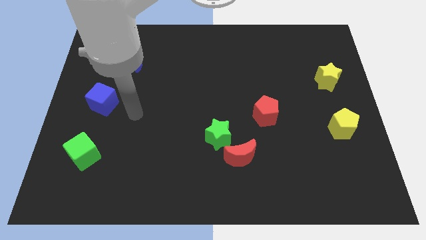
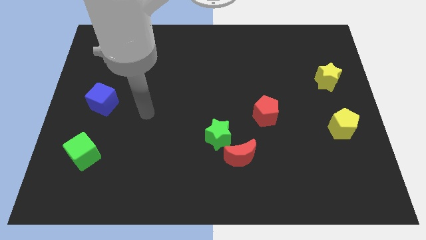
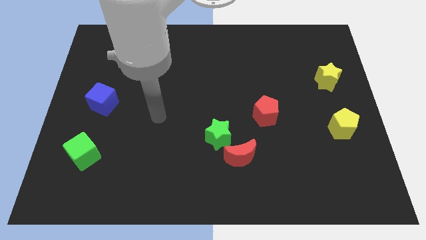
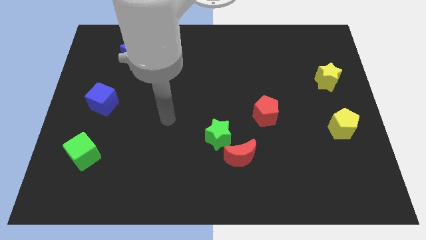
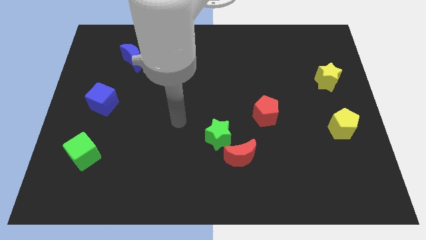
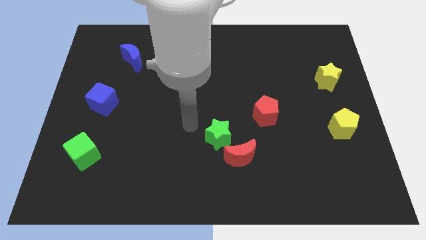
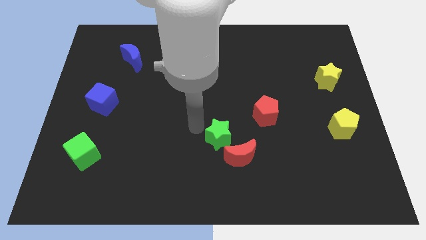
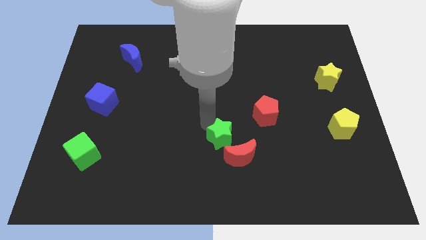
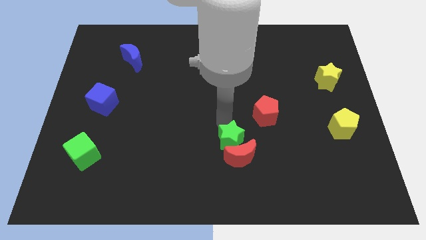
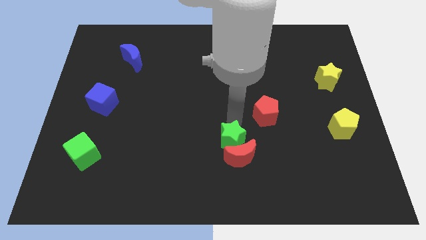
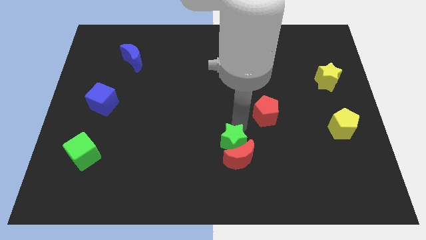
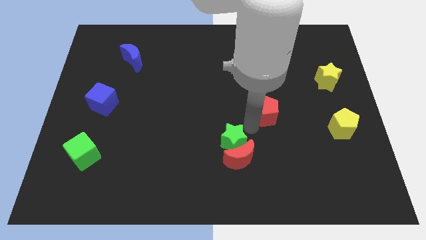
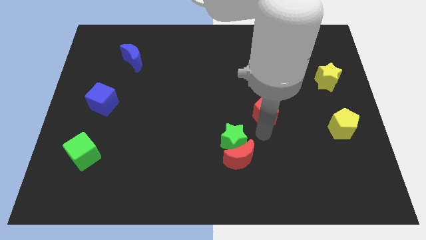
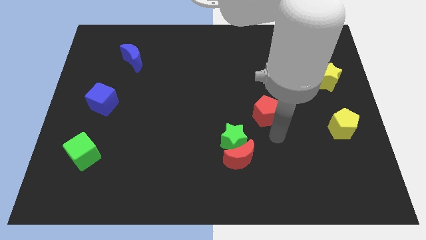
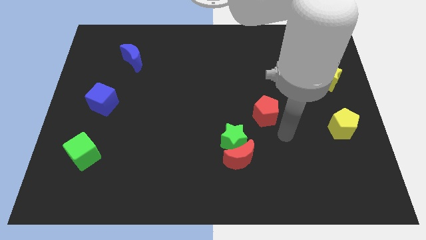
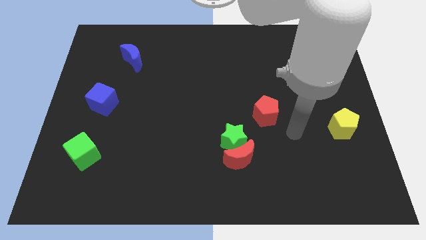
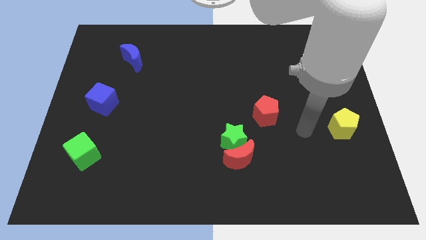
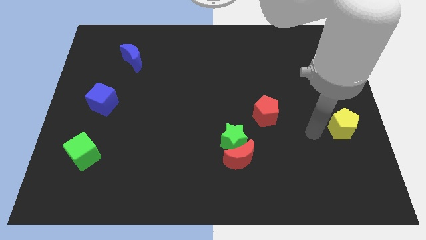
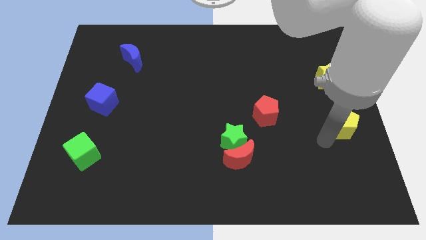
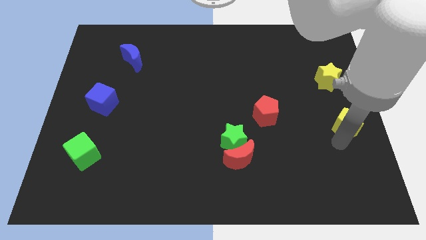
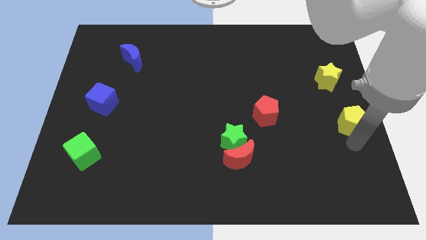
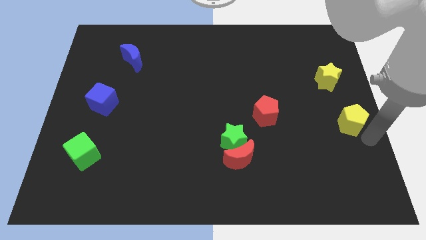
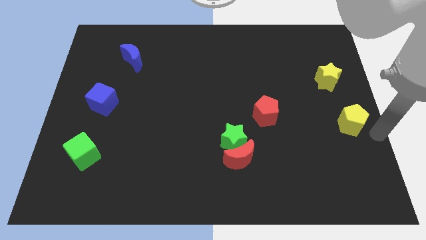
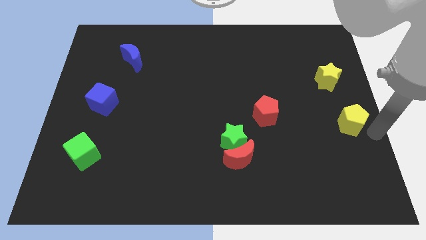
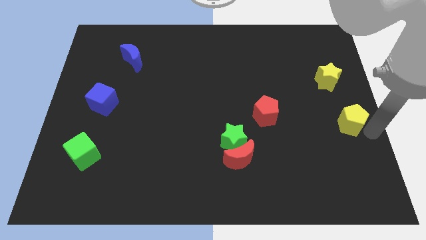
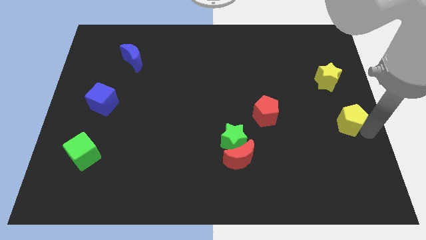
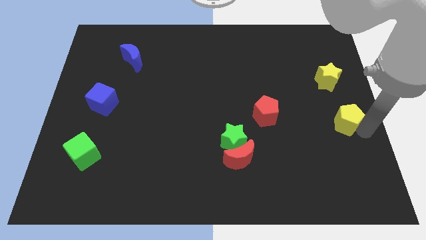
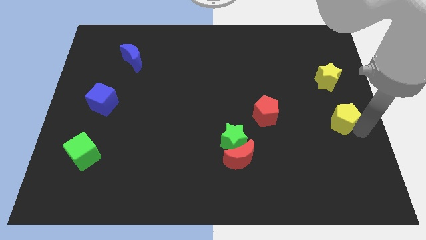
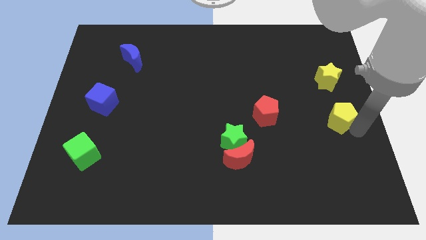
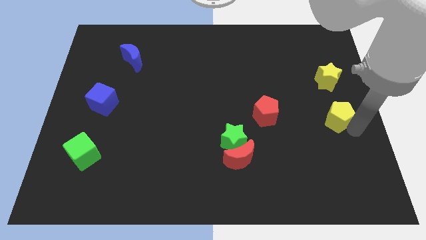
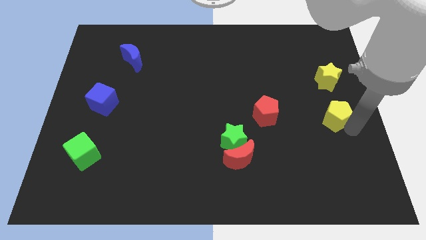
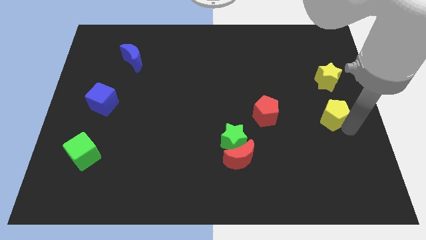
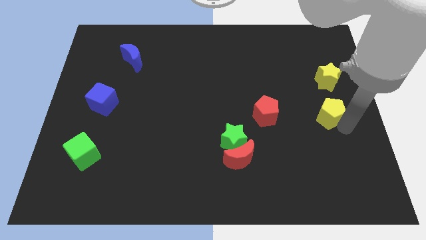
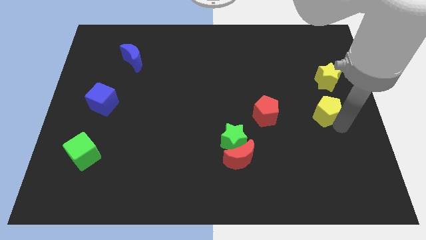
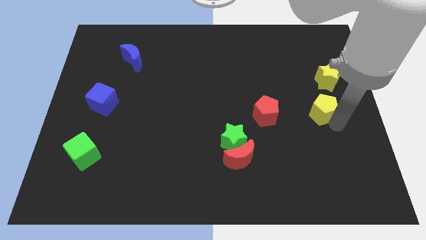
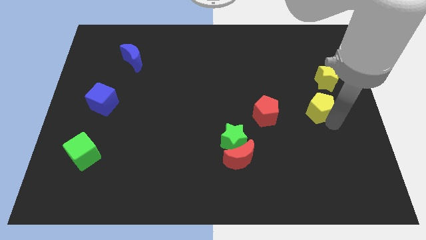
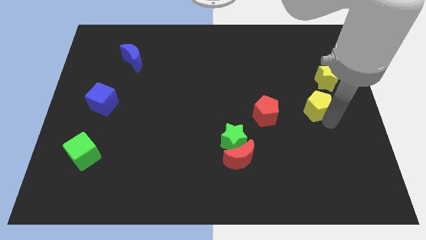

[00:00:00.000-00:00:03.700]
slightly move the yellow pentagon upwards and left diagonally

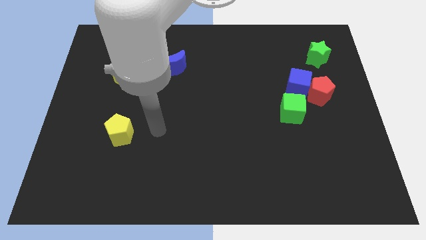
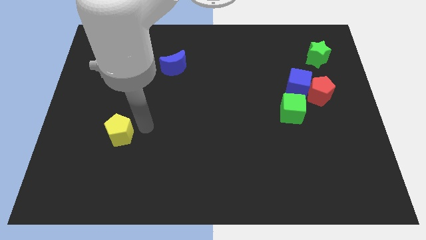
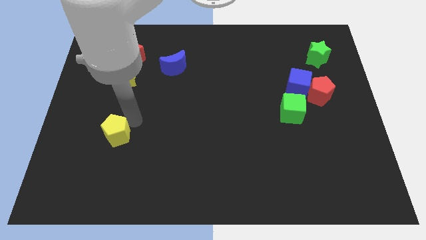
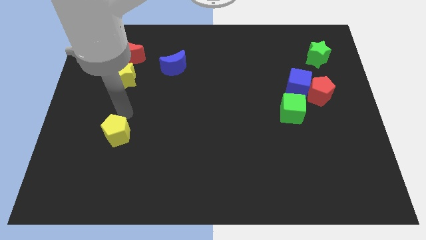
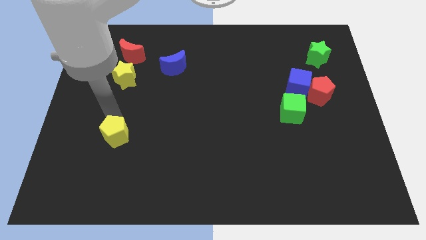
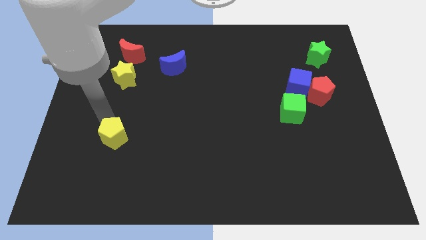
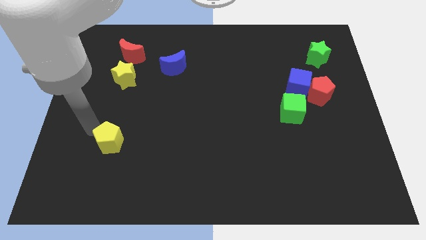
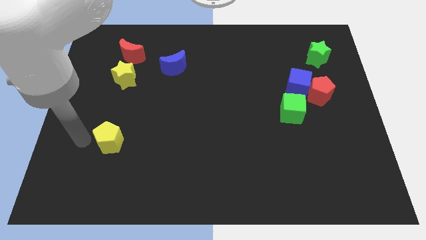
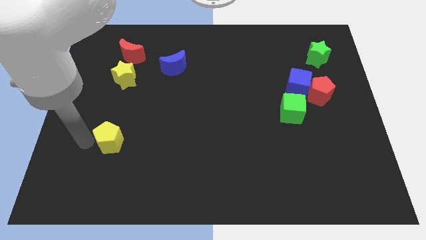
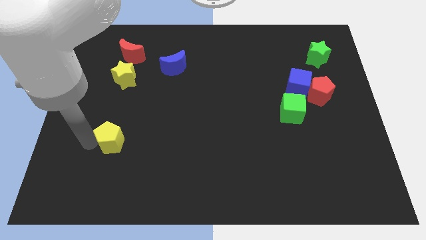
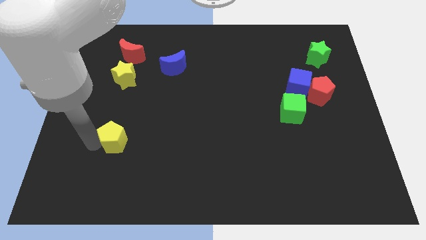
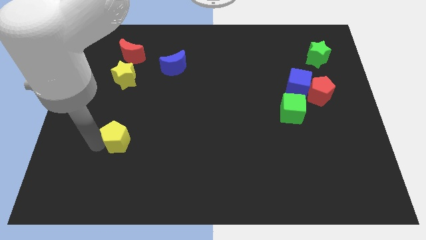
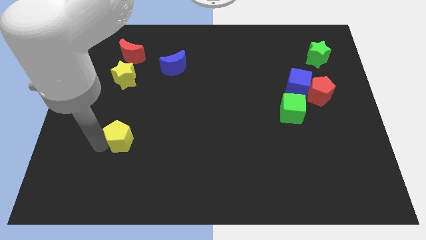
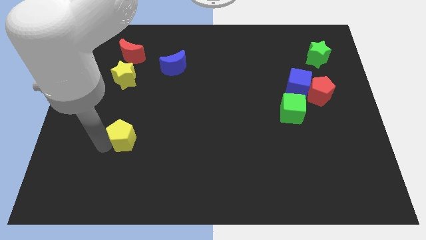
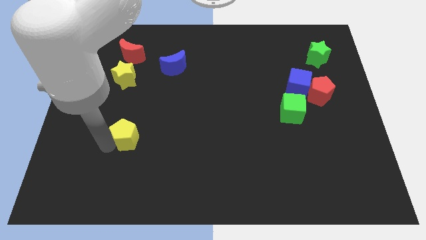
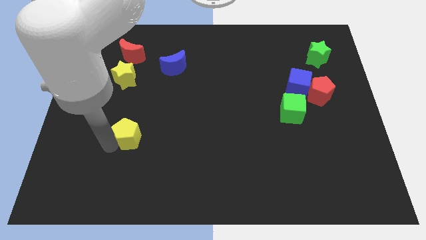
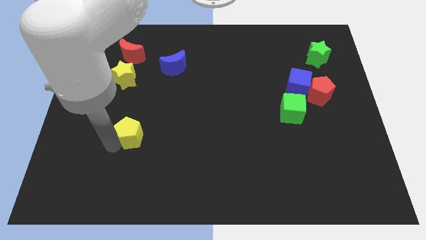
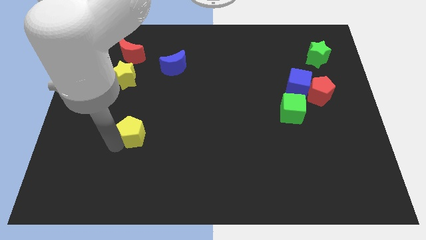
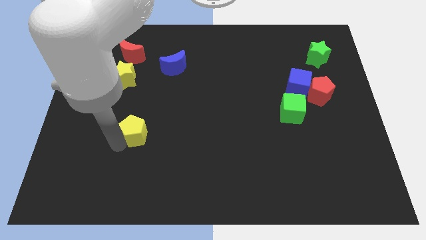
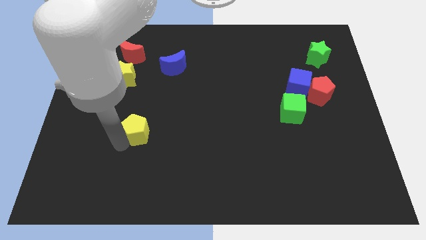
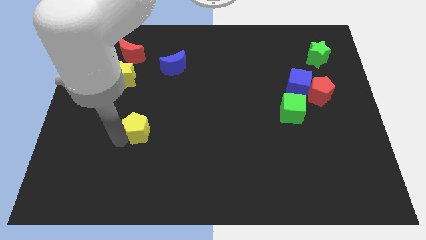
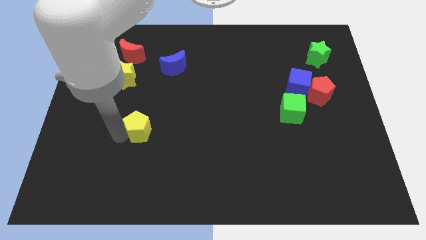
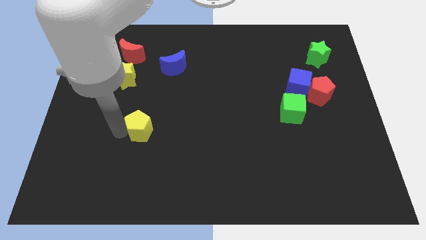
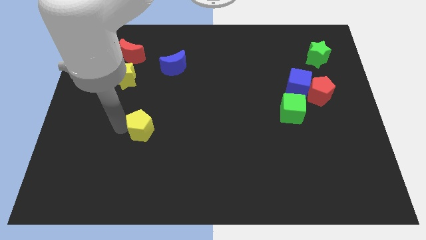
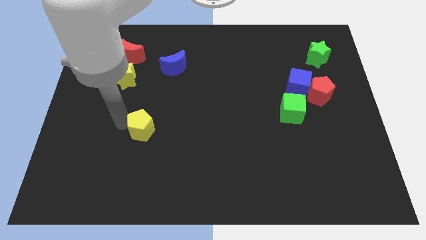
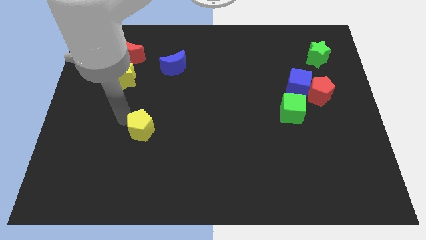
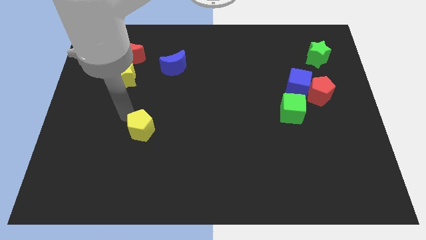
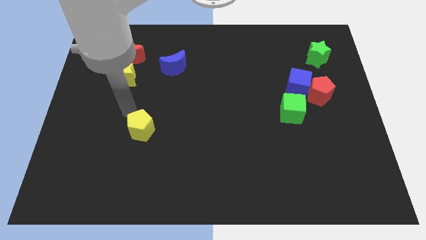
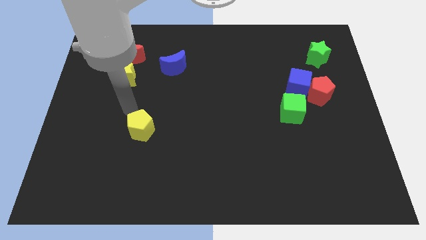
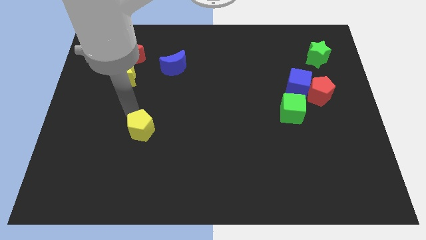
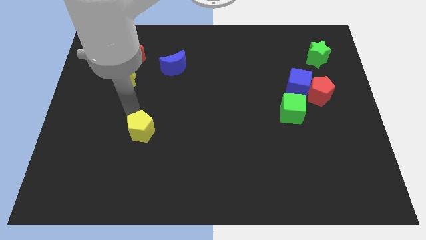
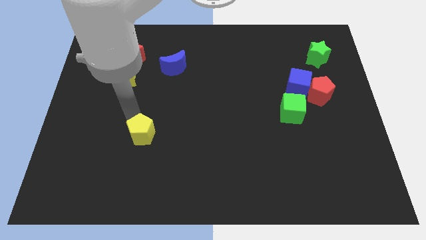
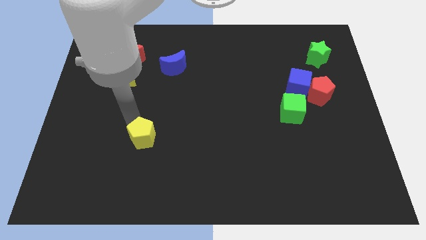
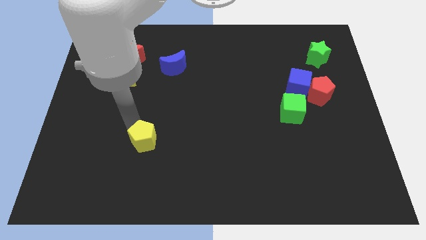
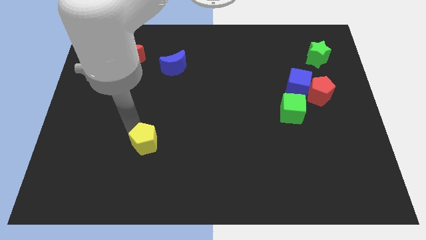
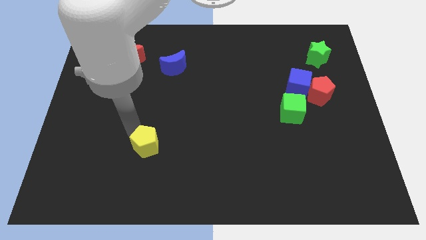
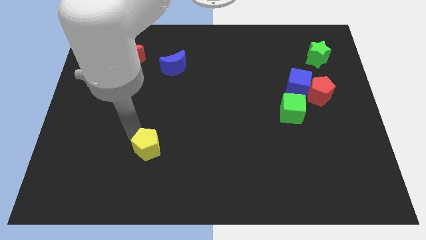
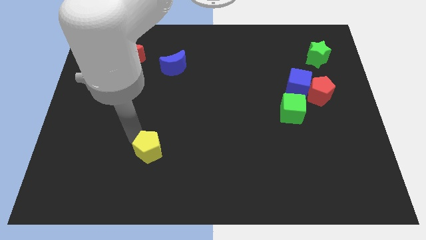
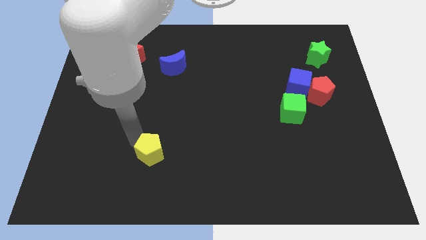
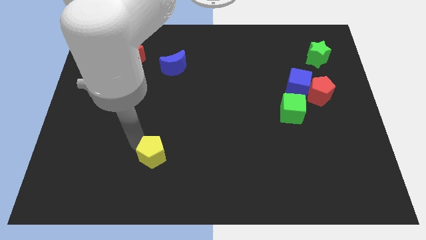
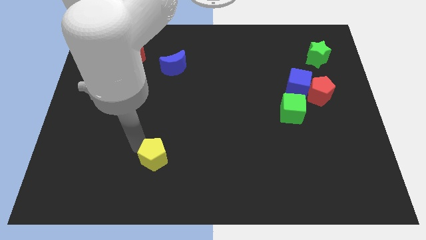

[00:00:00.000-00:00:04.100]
slightly push the yellow pentagon right
